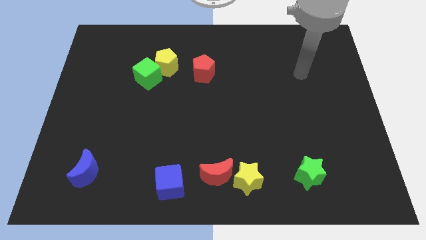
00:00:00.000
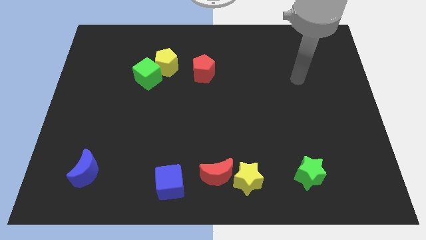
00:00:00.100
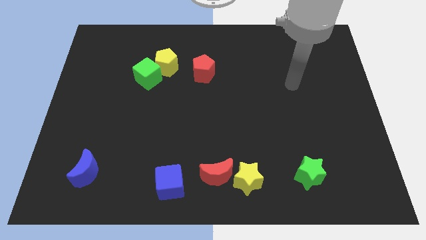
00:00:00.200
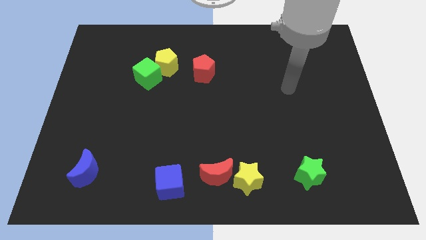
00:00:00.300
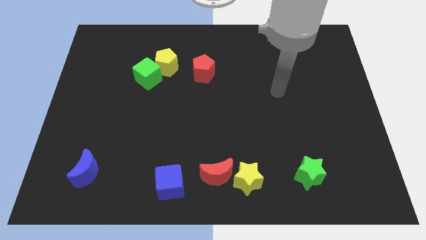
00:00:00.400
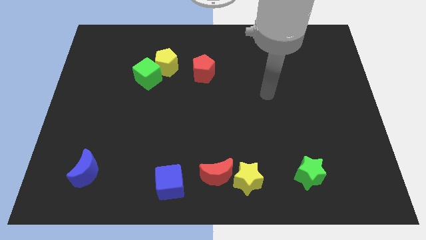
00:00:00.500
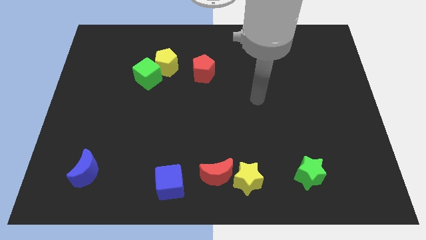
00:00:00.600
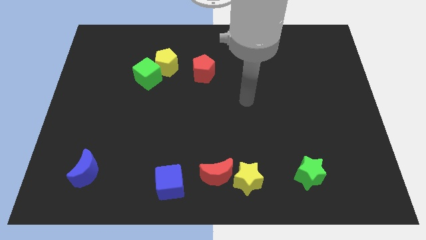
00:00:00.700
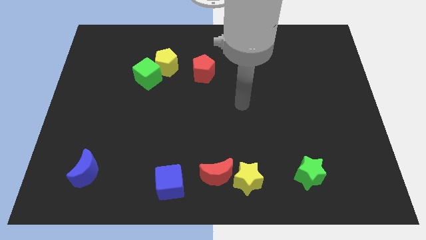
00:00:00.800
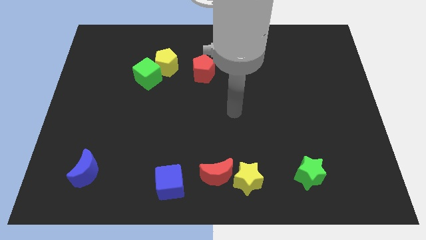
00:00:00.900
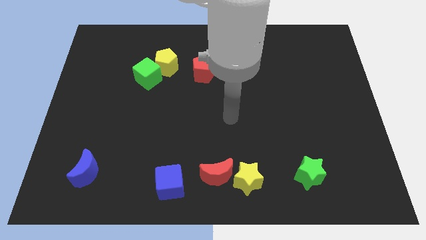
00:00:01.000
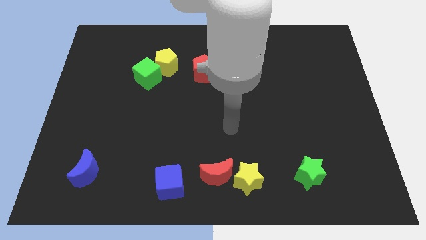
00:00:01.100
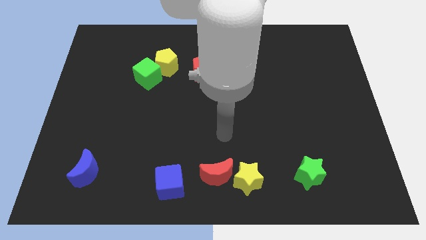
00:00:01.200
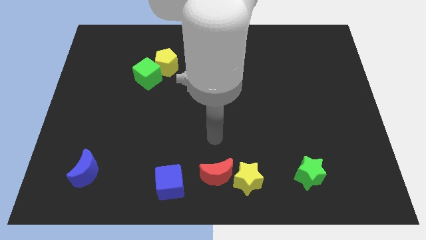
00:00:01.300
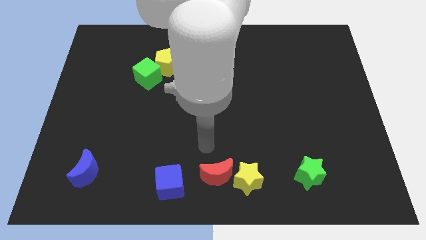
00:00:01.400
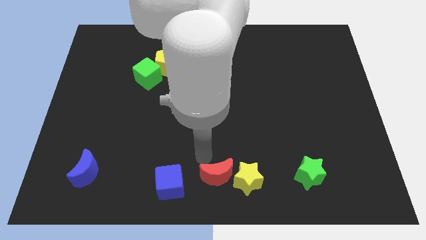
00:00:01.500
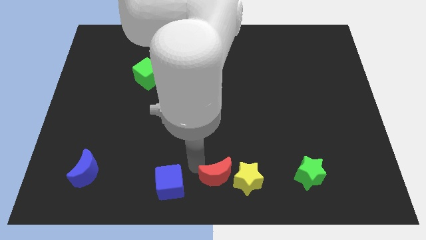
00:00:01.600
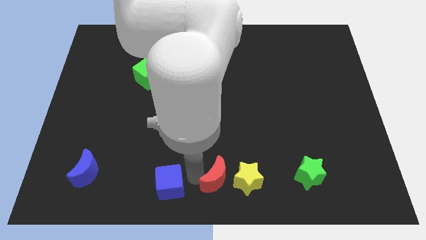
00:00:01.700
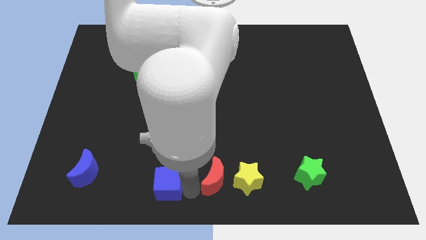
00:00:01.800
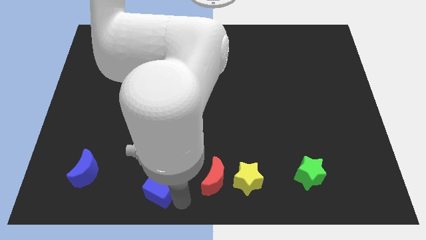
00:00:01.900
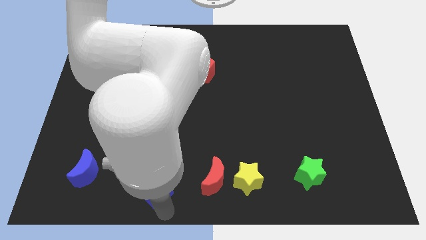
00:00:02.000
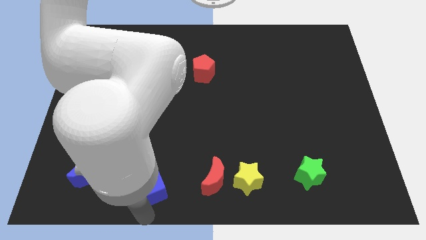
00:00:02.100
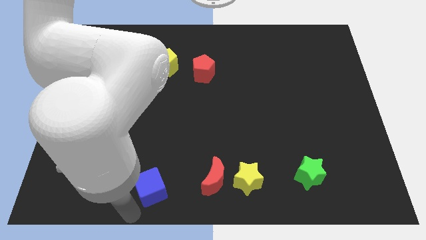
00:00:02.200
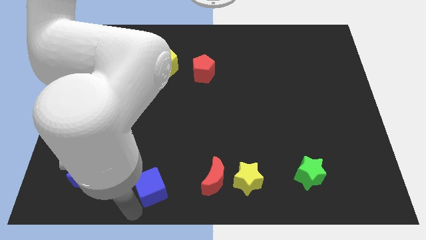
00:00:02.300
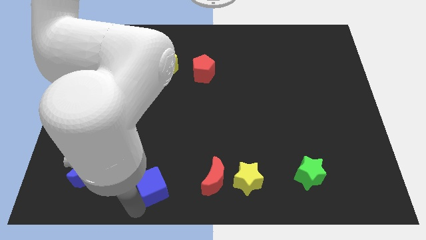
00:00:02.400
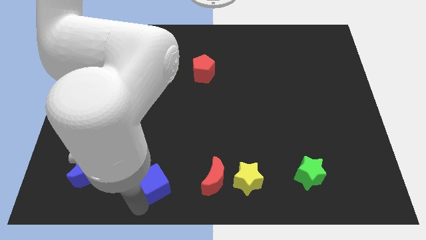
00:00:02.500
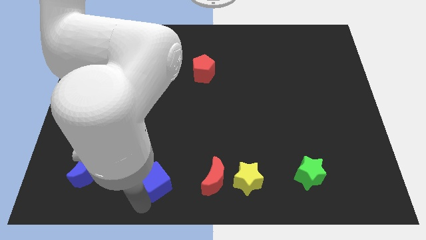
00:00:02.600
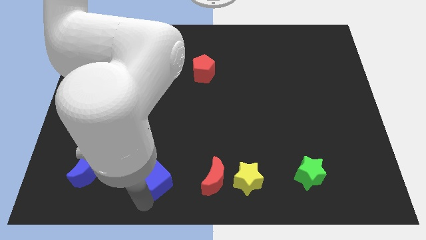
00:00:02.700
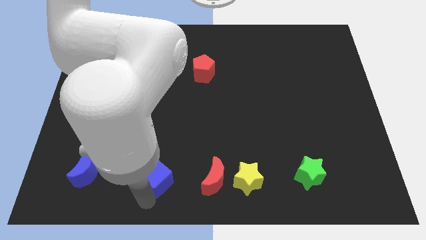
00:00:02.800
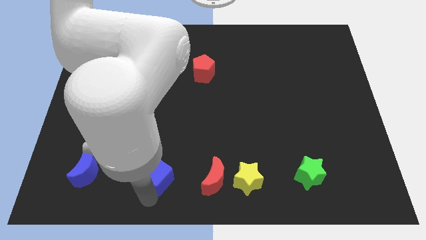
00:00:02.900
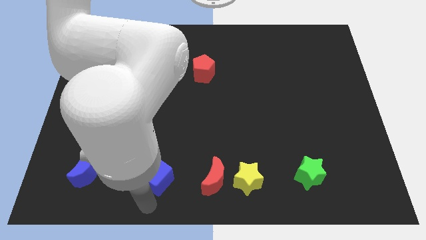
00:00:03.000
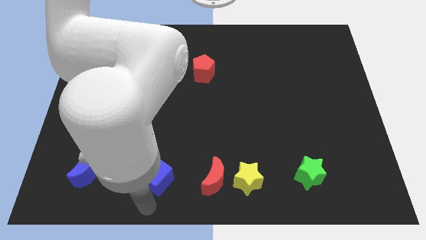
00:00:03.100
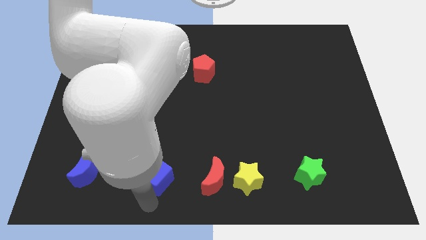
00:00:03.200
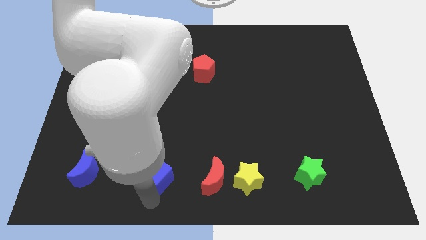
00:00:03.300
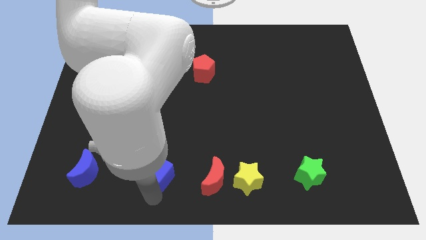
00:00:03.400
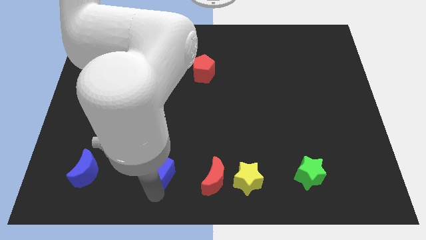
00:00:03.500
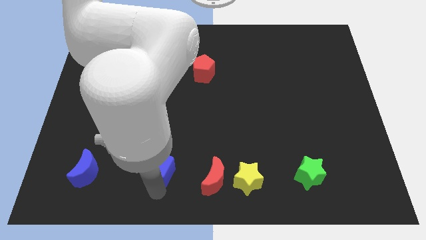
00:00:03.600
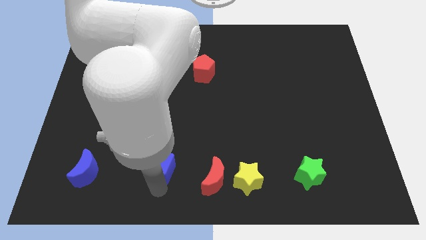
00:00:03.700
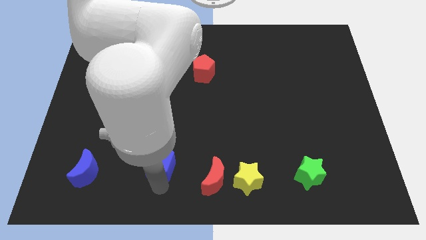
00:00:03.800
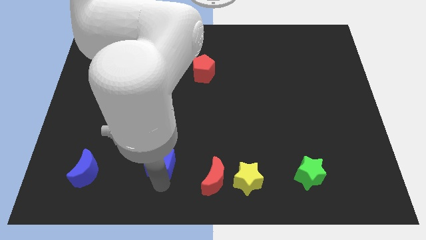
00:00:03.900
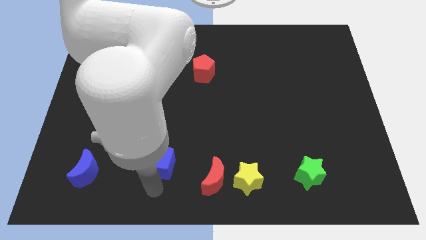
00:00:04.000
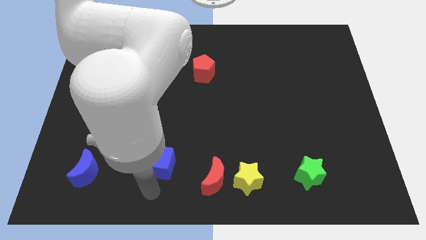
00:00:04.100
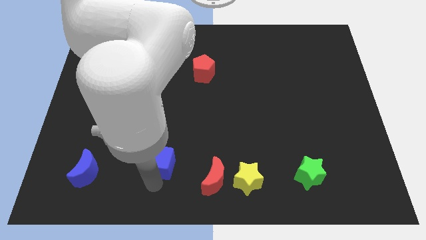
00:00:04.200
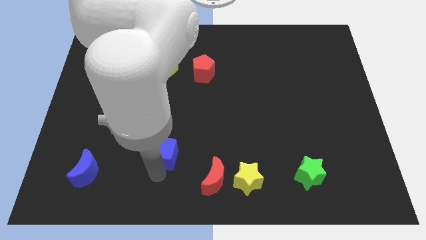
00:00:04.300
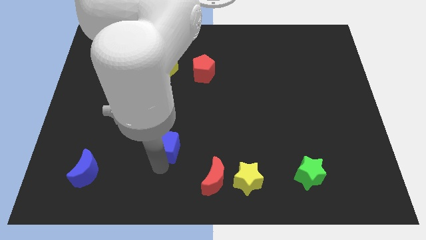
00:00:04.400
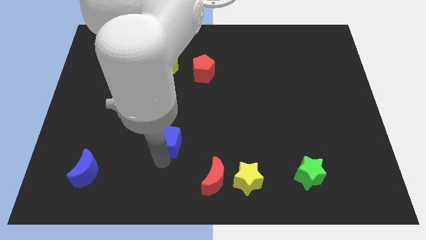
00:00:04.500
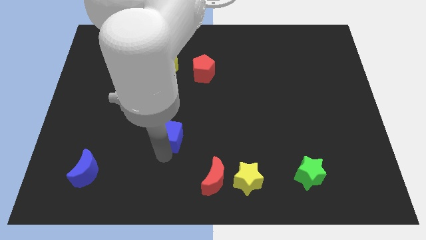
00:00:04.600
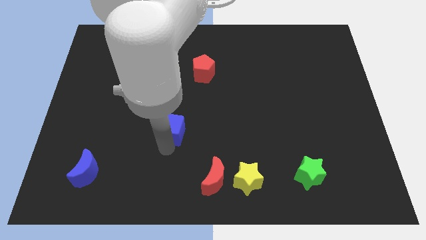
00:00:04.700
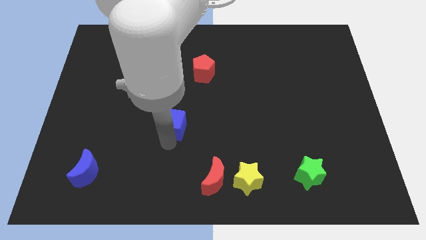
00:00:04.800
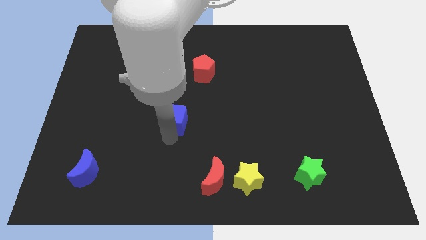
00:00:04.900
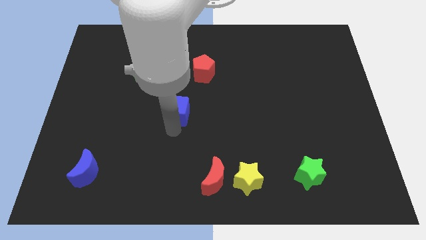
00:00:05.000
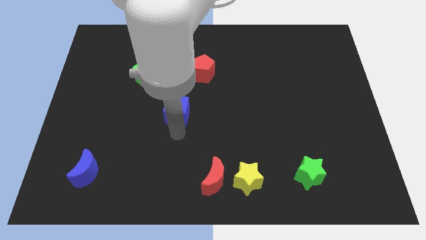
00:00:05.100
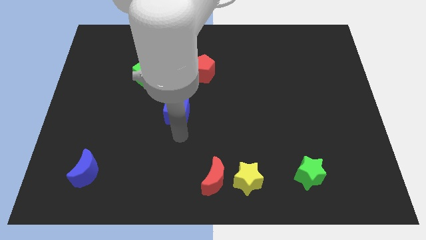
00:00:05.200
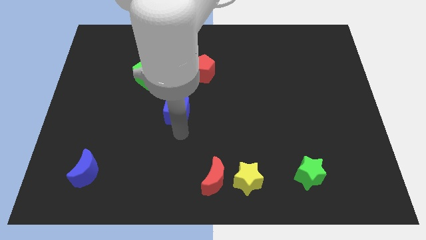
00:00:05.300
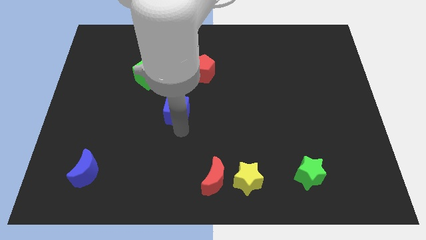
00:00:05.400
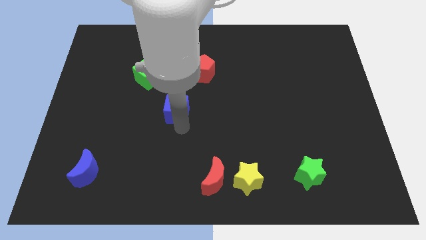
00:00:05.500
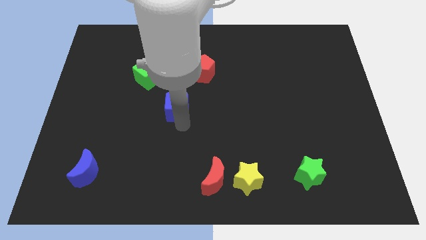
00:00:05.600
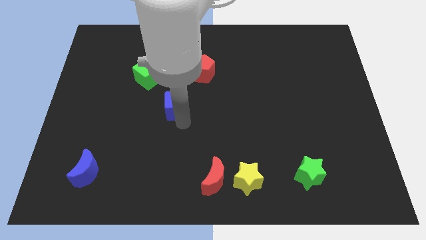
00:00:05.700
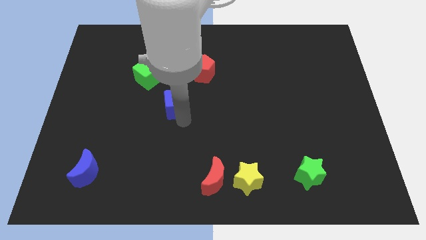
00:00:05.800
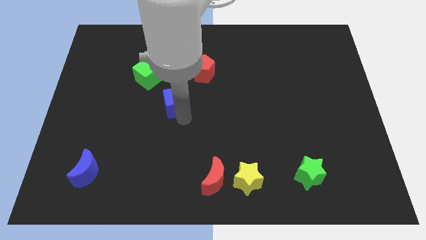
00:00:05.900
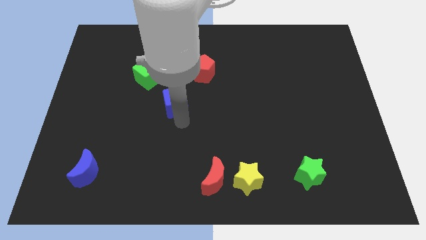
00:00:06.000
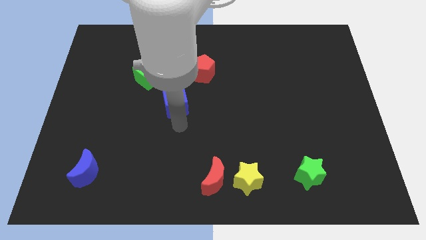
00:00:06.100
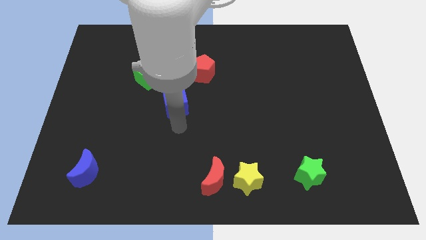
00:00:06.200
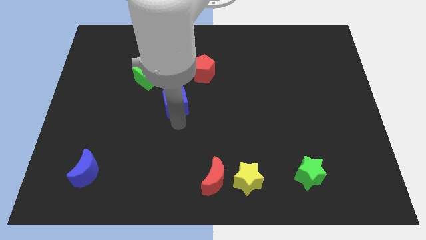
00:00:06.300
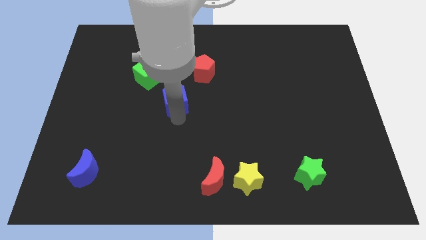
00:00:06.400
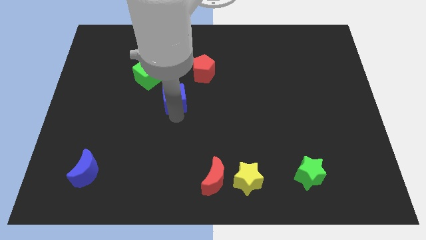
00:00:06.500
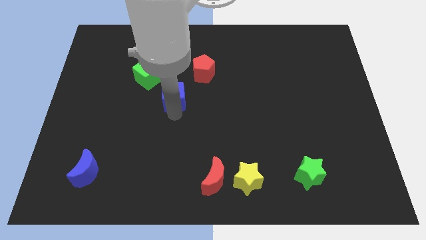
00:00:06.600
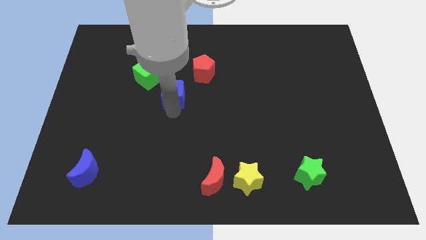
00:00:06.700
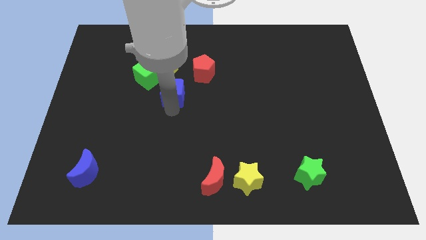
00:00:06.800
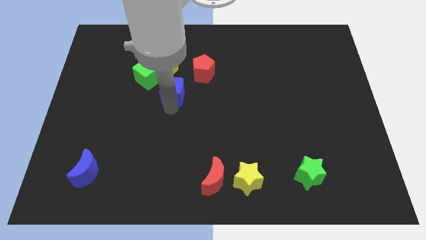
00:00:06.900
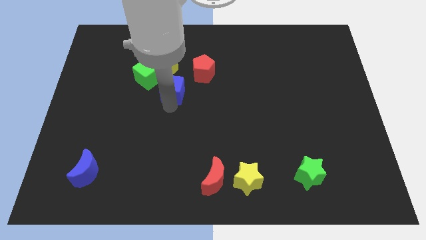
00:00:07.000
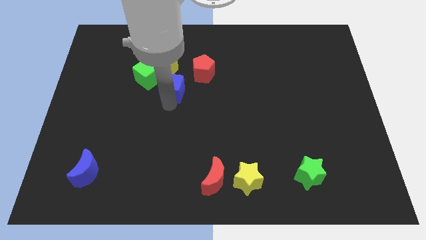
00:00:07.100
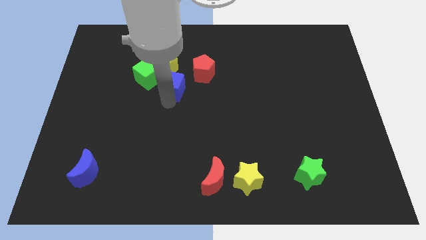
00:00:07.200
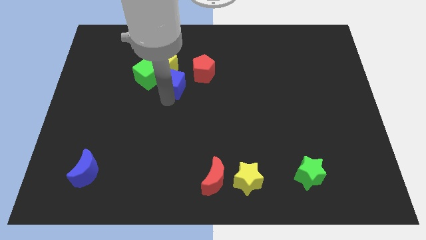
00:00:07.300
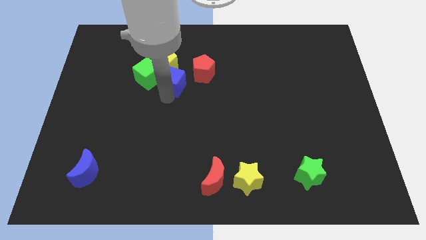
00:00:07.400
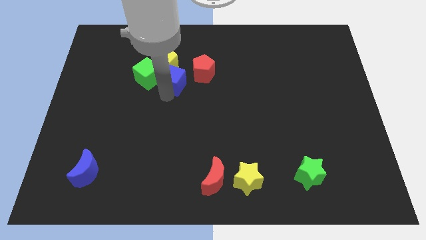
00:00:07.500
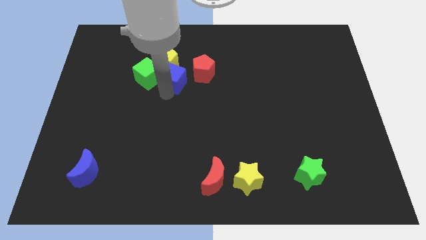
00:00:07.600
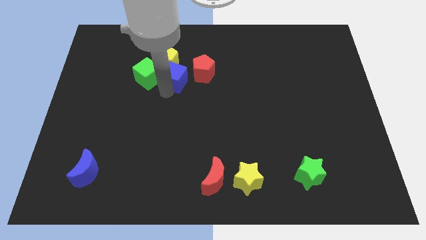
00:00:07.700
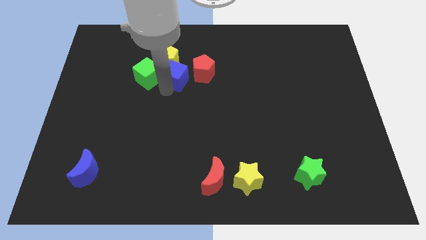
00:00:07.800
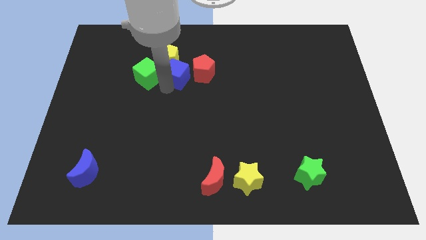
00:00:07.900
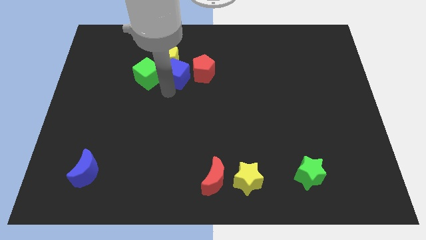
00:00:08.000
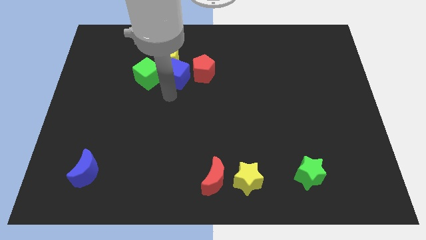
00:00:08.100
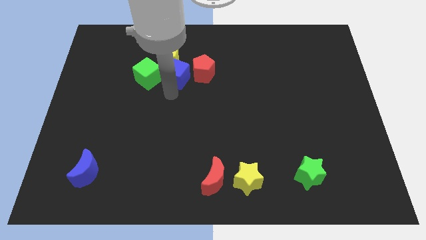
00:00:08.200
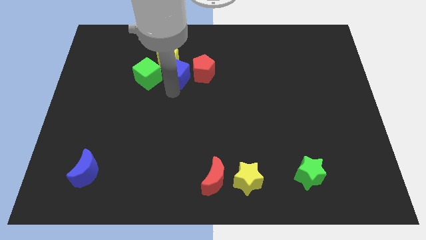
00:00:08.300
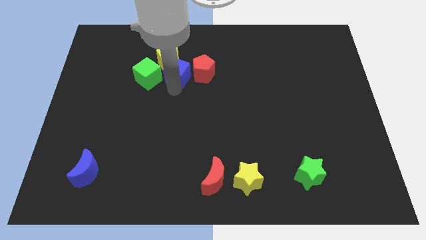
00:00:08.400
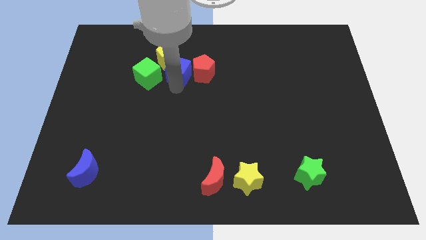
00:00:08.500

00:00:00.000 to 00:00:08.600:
put the blue cube diagonally up and to the left of the red pentagon
